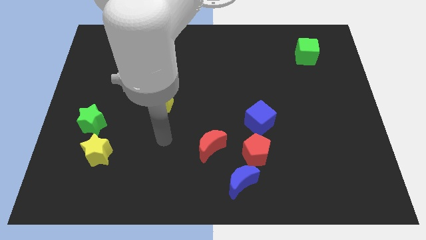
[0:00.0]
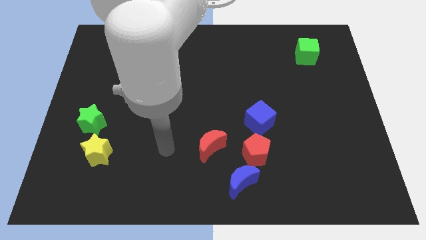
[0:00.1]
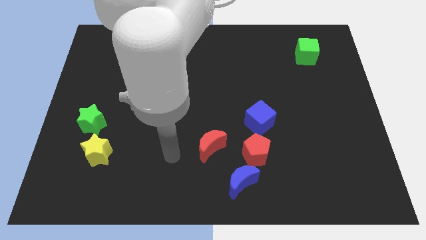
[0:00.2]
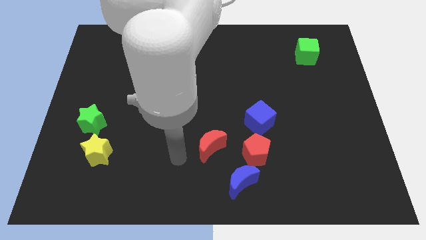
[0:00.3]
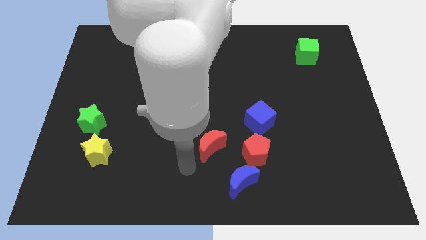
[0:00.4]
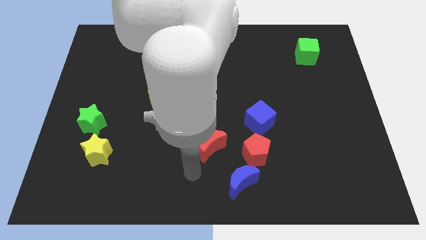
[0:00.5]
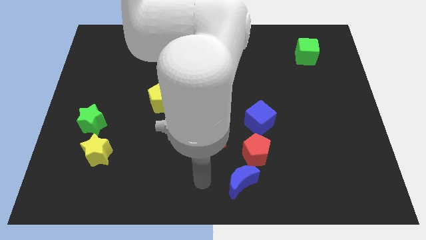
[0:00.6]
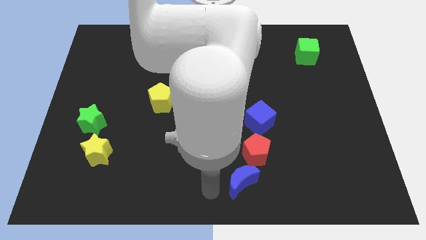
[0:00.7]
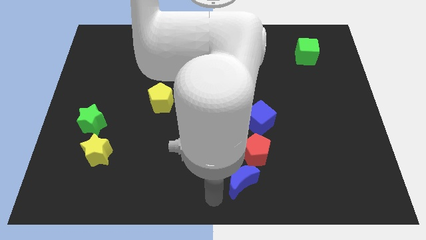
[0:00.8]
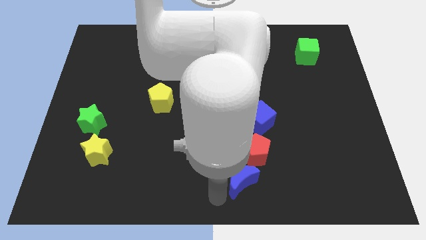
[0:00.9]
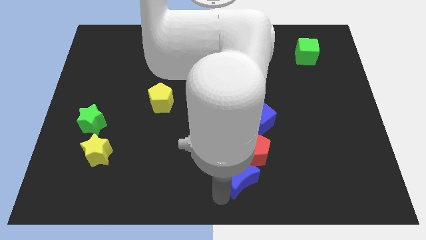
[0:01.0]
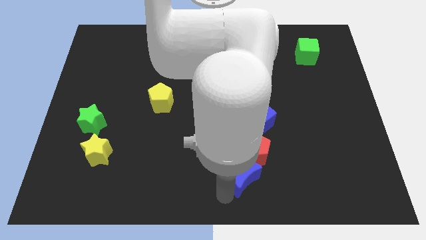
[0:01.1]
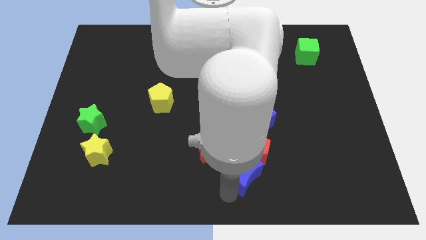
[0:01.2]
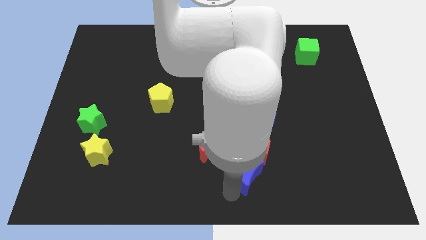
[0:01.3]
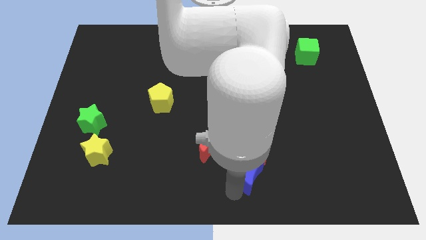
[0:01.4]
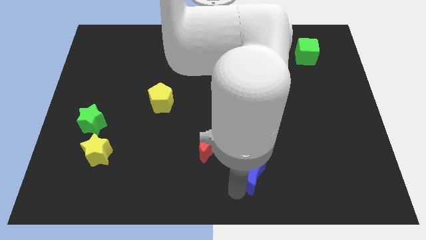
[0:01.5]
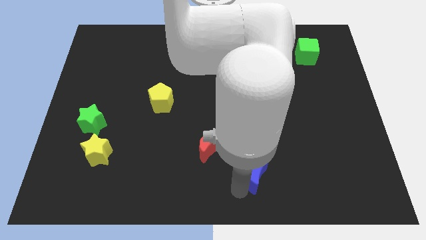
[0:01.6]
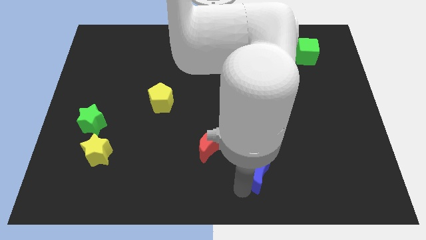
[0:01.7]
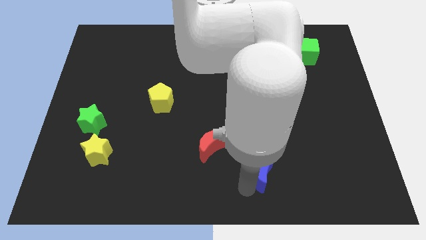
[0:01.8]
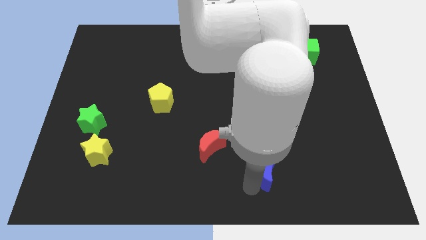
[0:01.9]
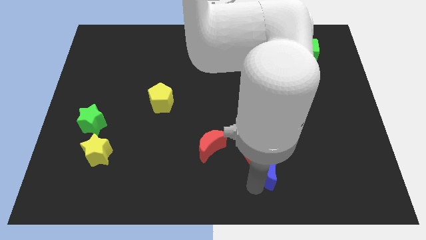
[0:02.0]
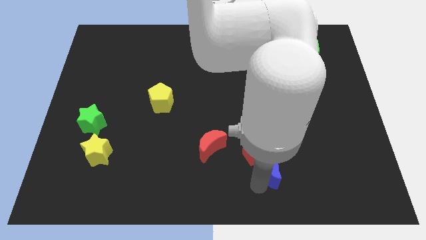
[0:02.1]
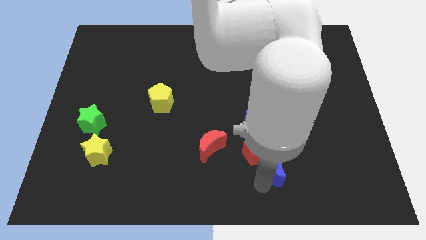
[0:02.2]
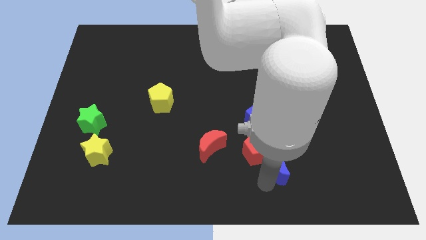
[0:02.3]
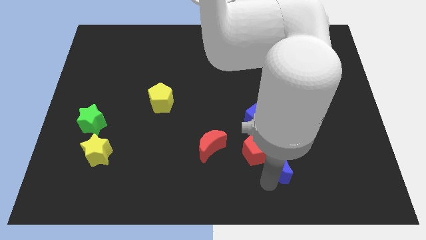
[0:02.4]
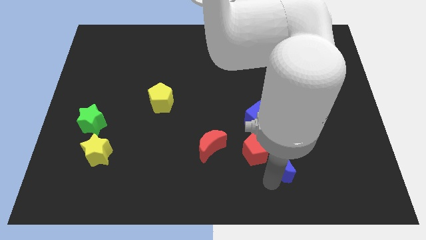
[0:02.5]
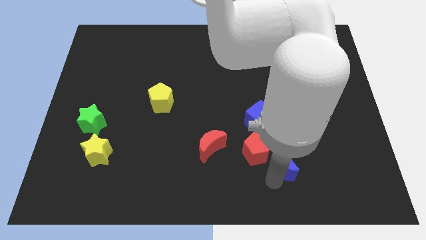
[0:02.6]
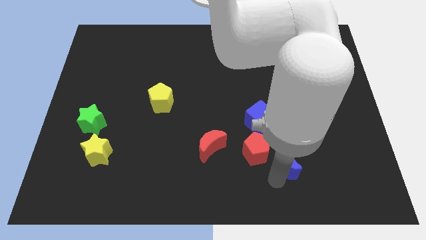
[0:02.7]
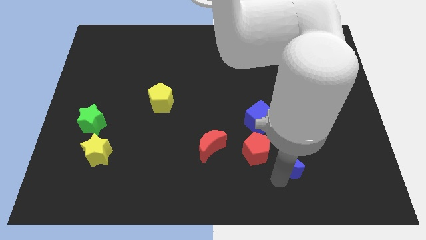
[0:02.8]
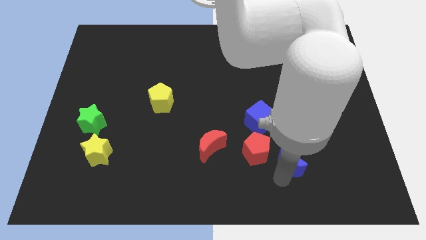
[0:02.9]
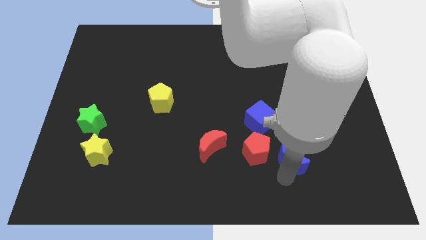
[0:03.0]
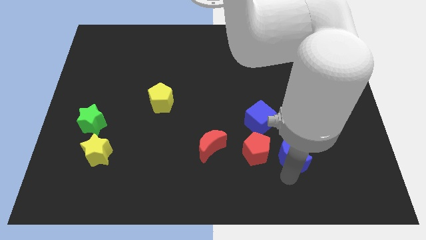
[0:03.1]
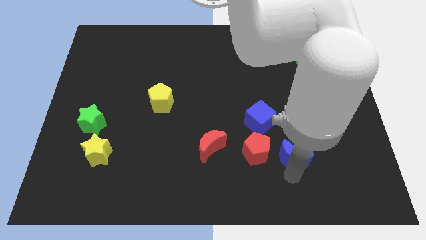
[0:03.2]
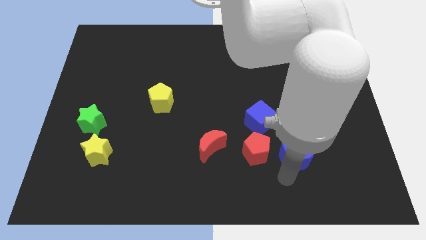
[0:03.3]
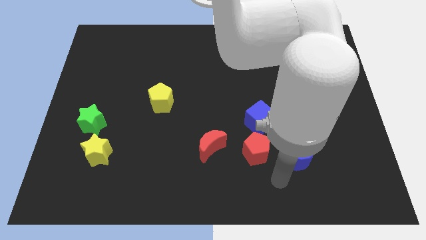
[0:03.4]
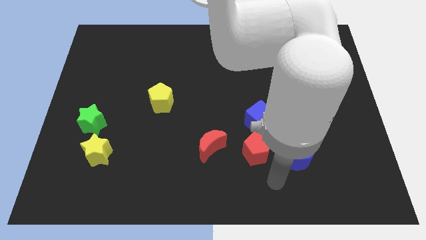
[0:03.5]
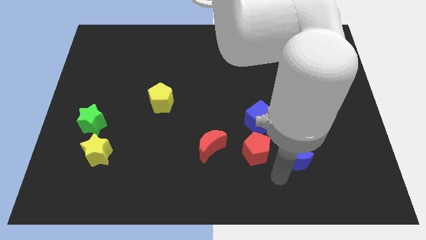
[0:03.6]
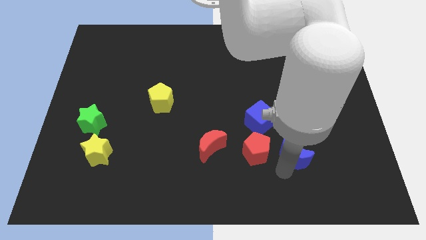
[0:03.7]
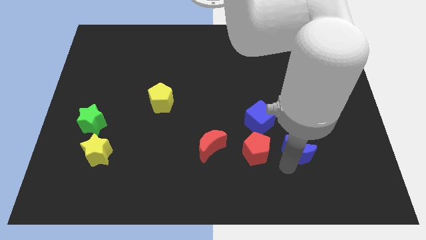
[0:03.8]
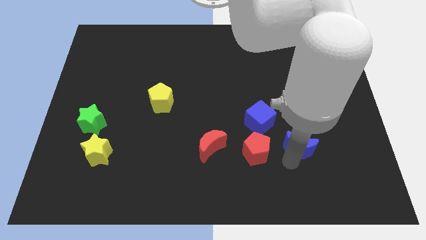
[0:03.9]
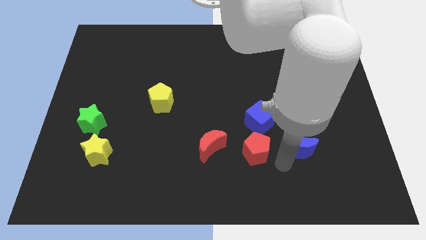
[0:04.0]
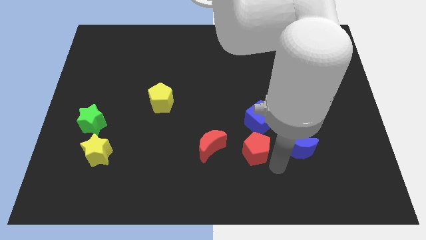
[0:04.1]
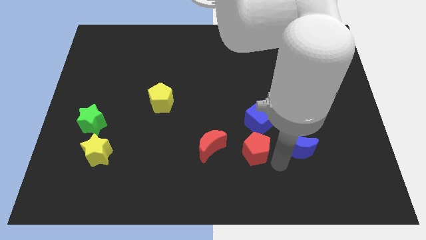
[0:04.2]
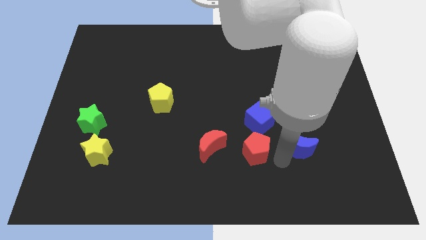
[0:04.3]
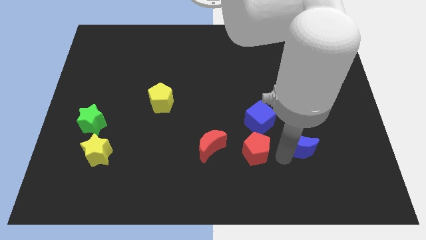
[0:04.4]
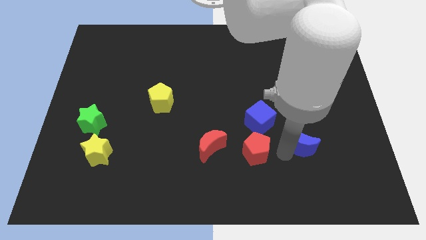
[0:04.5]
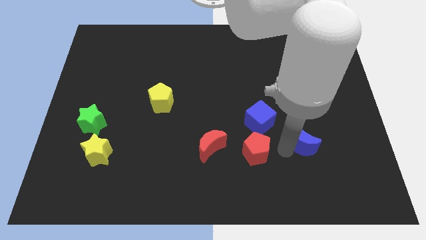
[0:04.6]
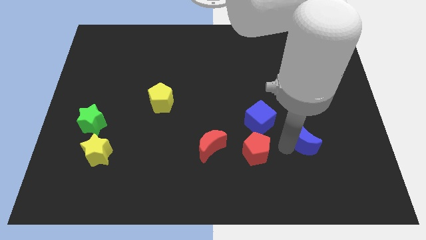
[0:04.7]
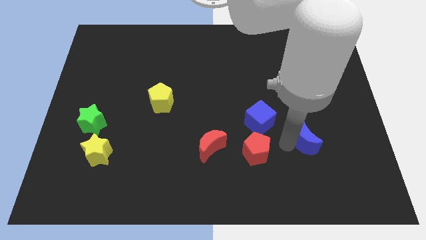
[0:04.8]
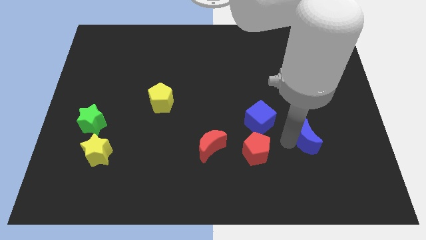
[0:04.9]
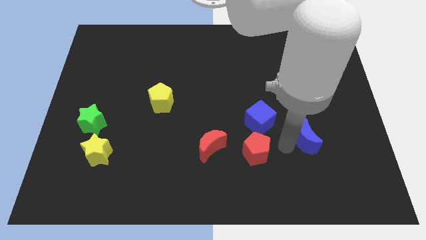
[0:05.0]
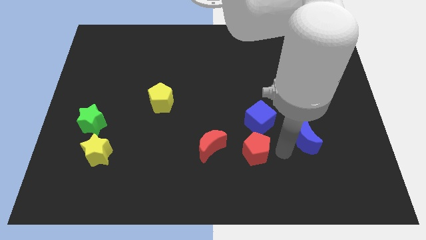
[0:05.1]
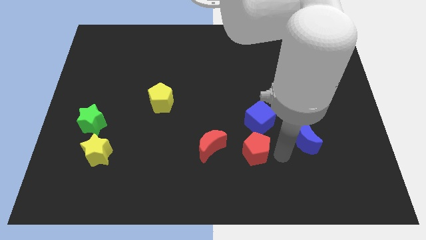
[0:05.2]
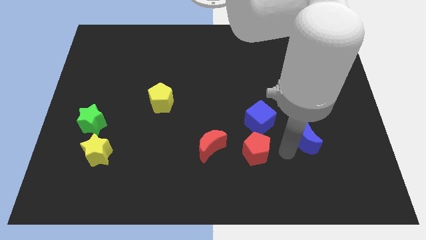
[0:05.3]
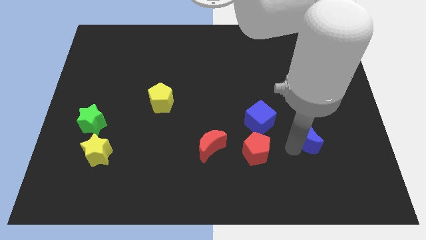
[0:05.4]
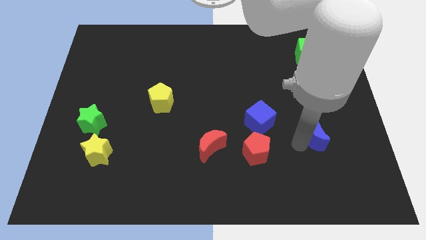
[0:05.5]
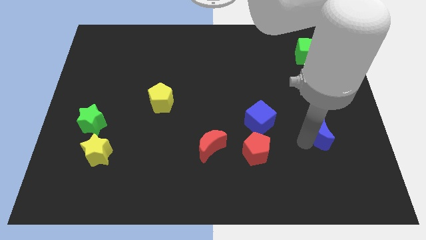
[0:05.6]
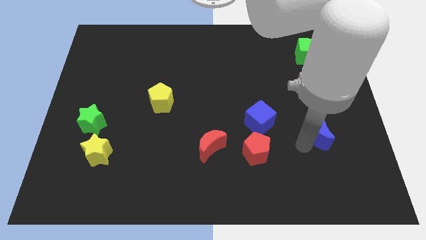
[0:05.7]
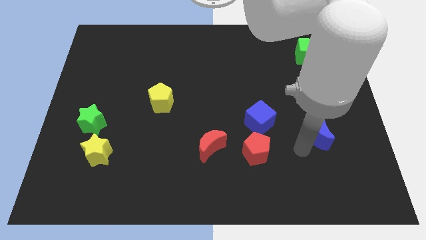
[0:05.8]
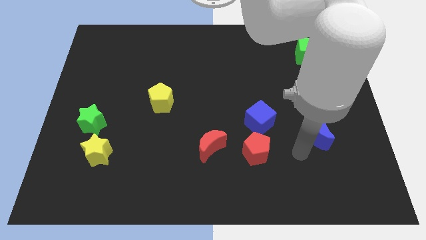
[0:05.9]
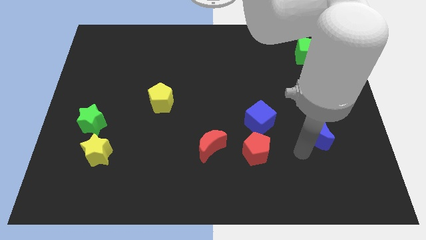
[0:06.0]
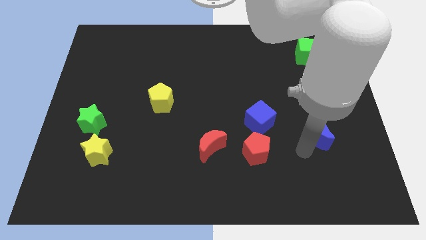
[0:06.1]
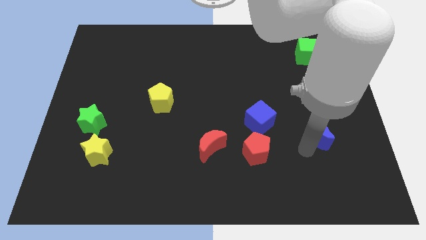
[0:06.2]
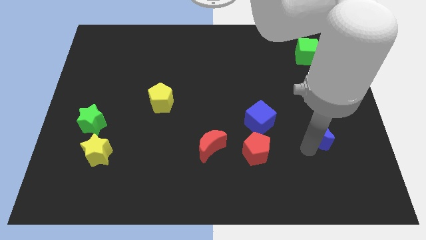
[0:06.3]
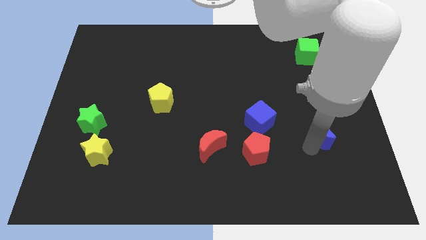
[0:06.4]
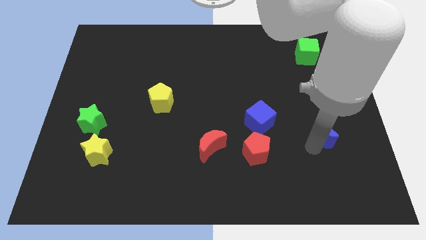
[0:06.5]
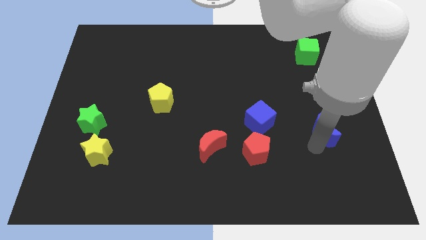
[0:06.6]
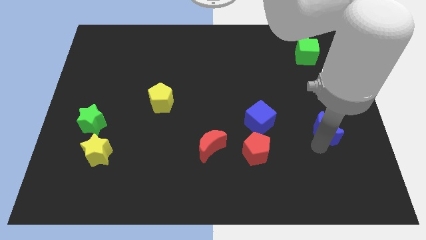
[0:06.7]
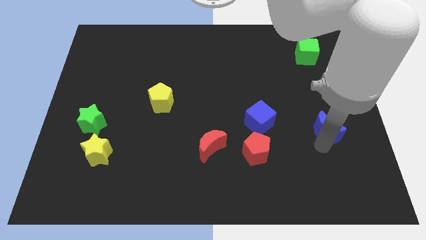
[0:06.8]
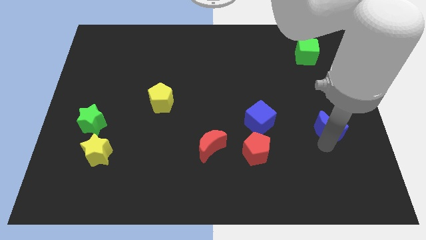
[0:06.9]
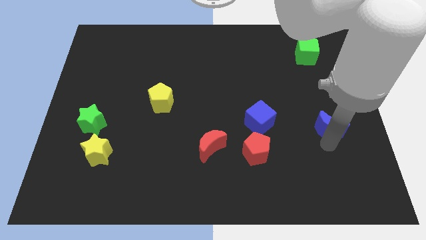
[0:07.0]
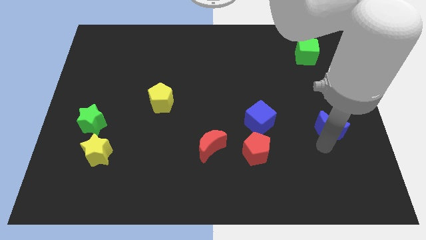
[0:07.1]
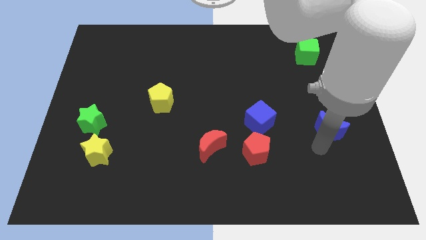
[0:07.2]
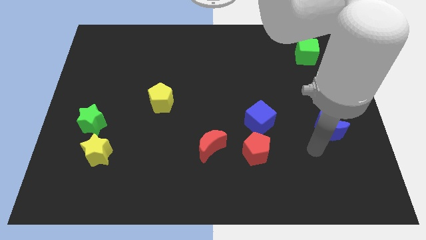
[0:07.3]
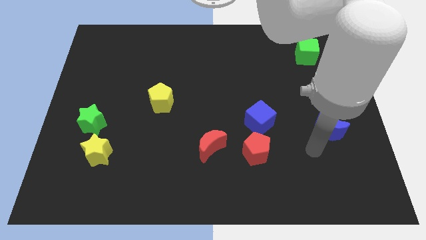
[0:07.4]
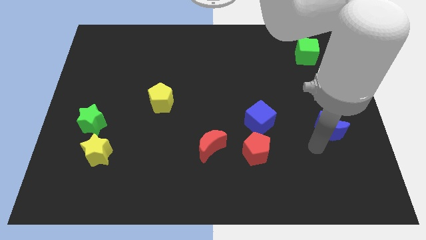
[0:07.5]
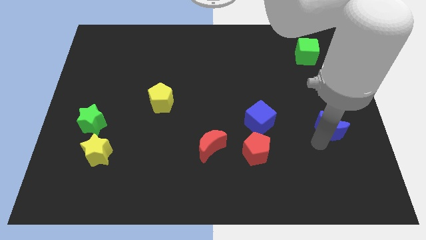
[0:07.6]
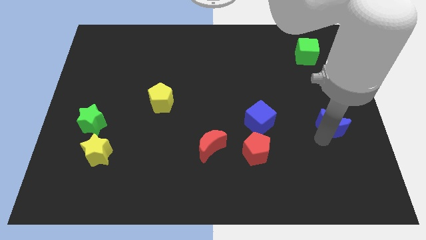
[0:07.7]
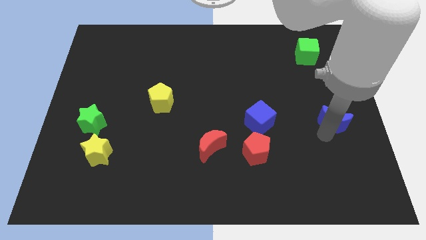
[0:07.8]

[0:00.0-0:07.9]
push the blue moon to the right side
